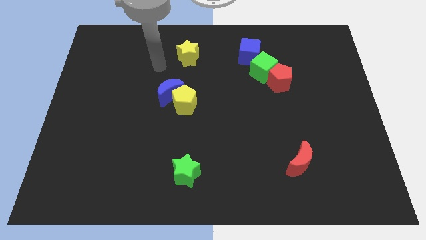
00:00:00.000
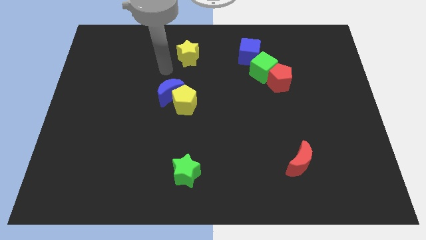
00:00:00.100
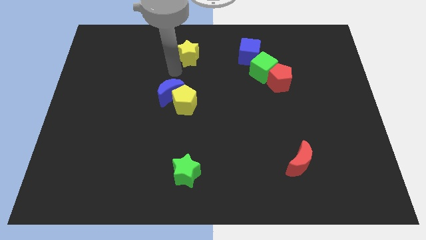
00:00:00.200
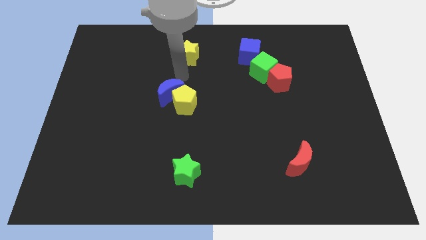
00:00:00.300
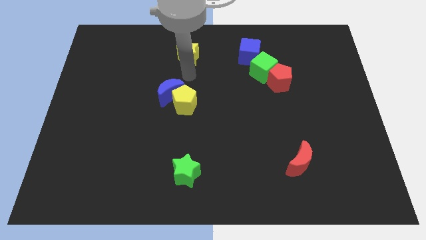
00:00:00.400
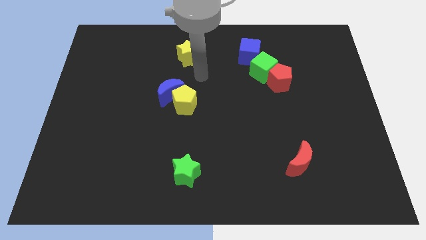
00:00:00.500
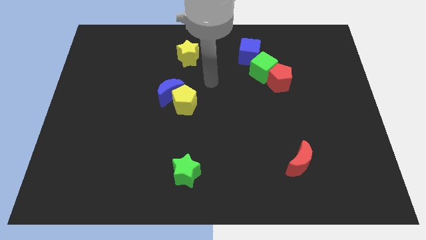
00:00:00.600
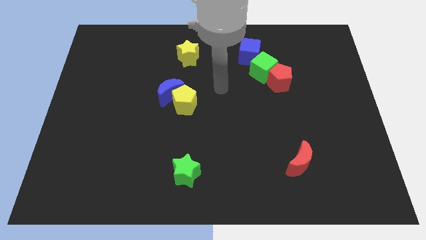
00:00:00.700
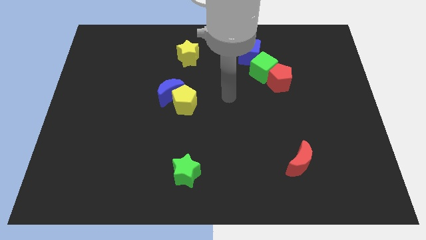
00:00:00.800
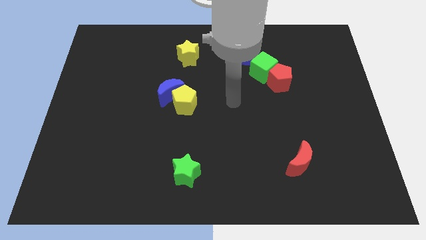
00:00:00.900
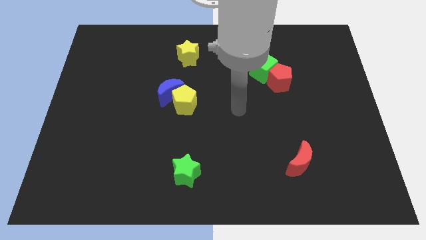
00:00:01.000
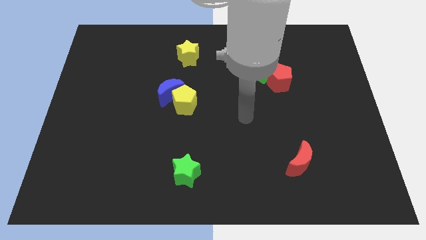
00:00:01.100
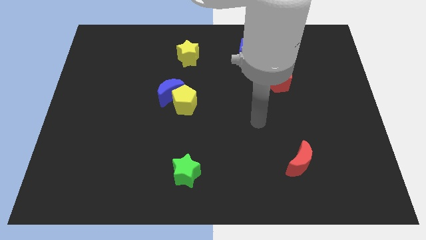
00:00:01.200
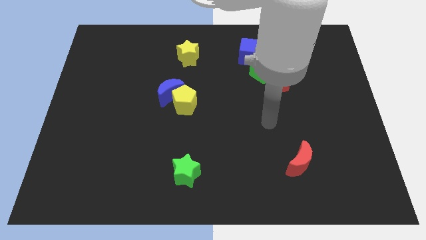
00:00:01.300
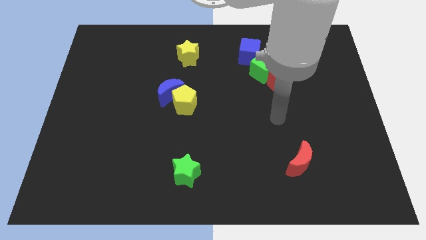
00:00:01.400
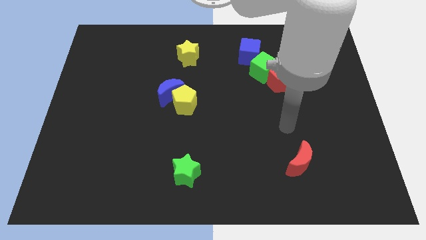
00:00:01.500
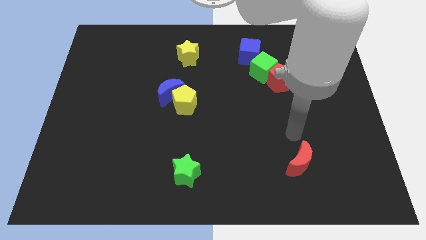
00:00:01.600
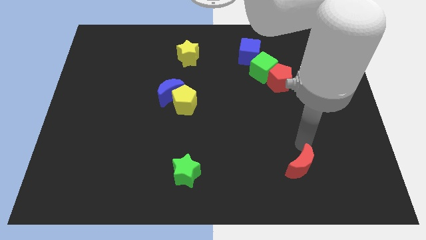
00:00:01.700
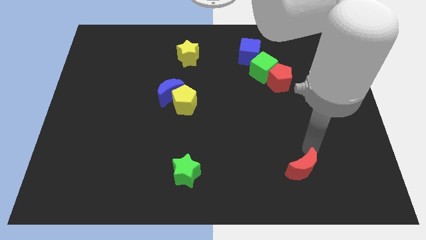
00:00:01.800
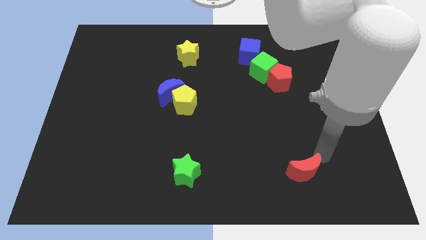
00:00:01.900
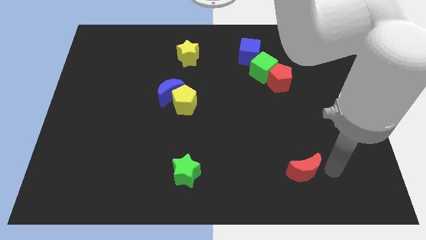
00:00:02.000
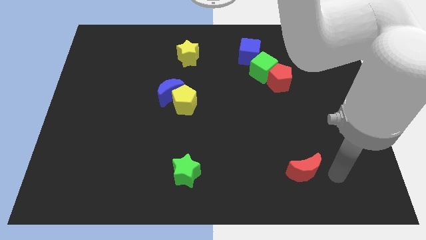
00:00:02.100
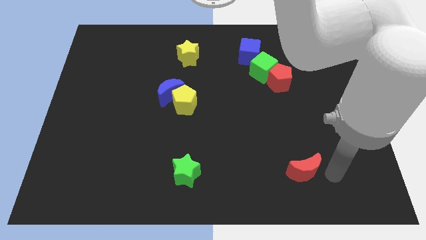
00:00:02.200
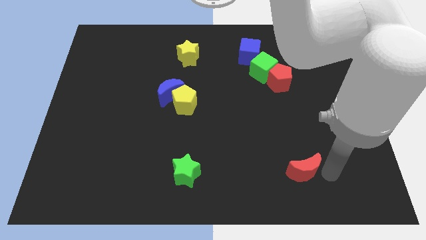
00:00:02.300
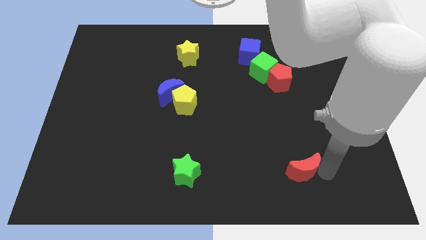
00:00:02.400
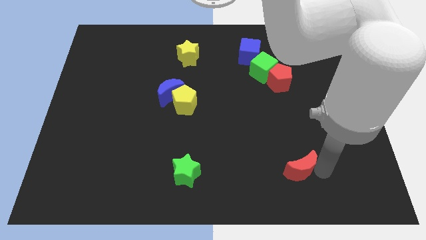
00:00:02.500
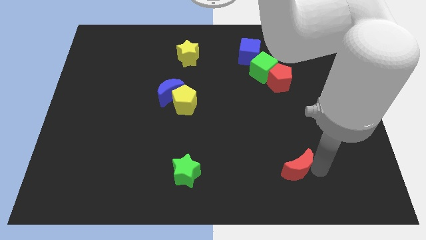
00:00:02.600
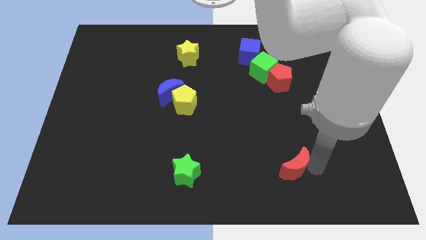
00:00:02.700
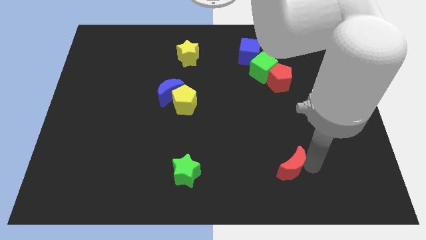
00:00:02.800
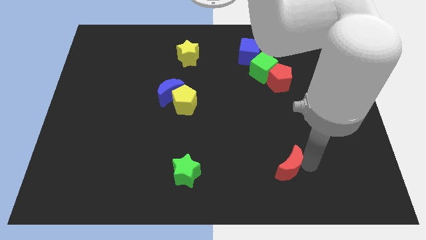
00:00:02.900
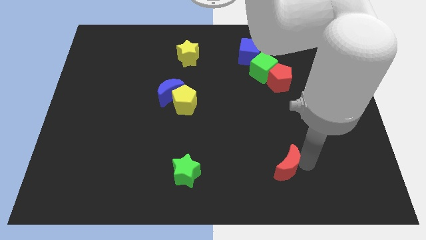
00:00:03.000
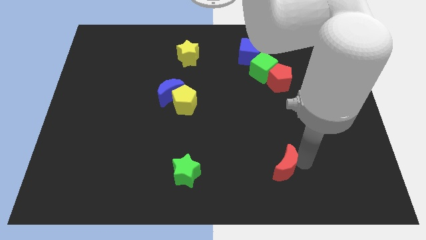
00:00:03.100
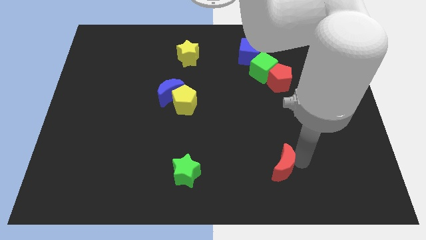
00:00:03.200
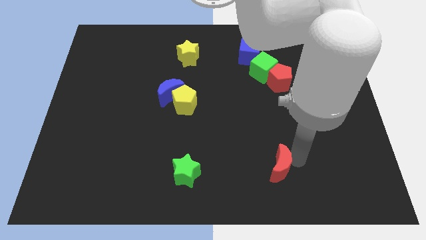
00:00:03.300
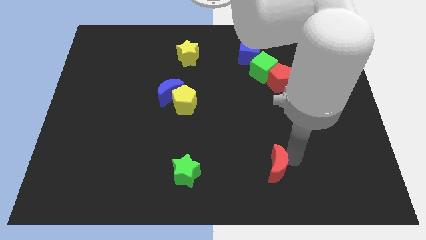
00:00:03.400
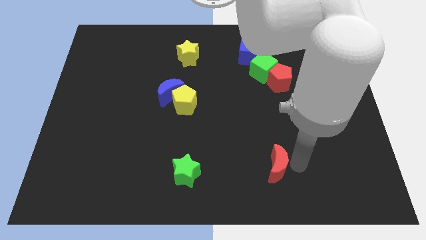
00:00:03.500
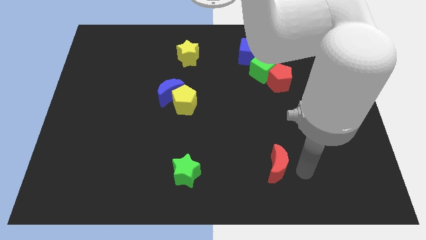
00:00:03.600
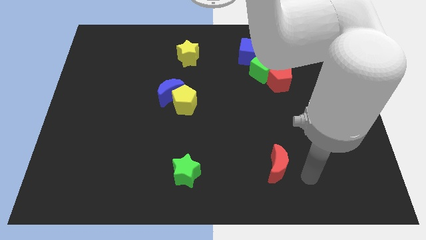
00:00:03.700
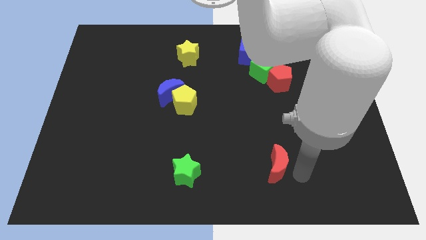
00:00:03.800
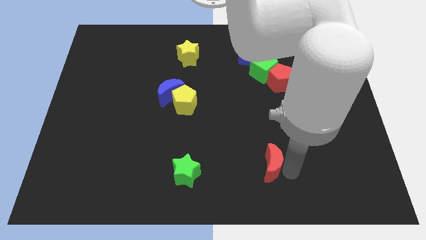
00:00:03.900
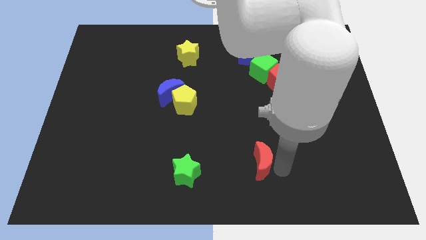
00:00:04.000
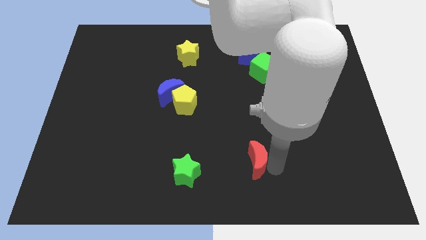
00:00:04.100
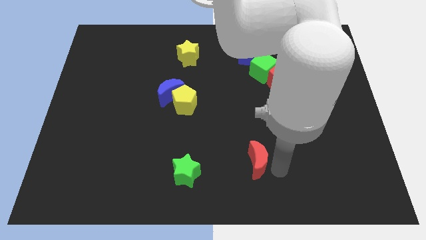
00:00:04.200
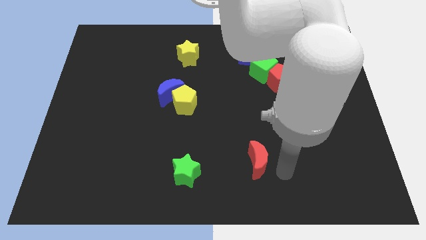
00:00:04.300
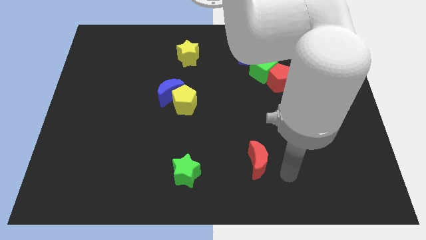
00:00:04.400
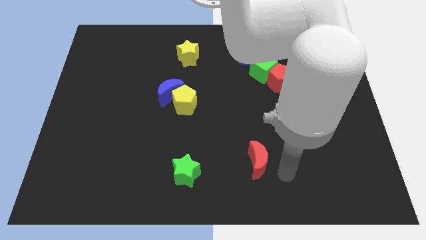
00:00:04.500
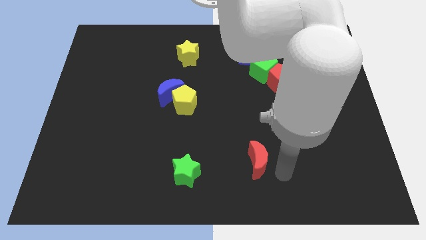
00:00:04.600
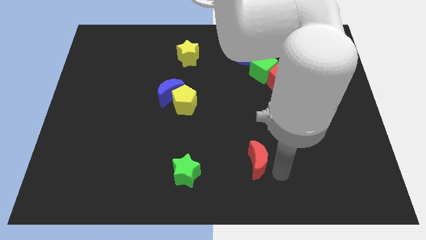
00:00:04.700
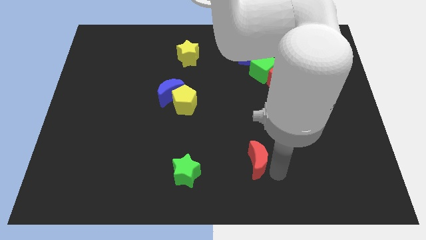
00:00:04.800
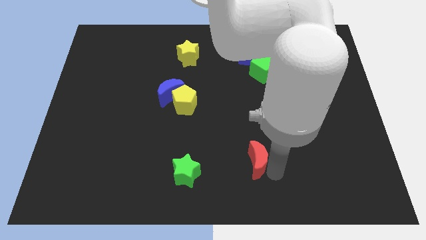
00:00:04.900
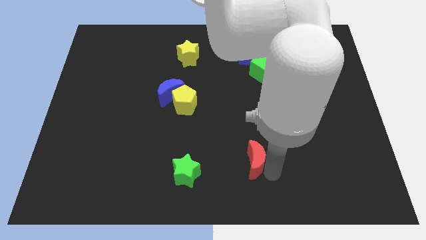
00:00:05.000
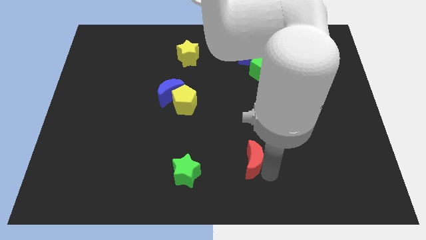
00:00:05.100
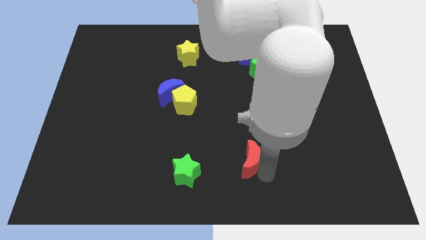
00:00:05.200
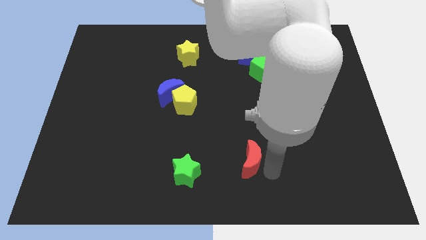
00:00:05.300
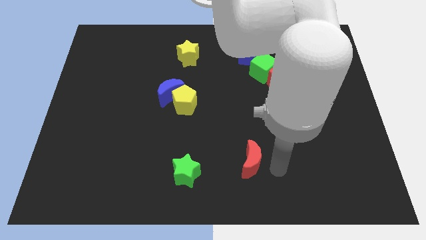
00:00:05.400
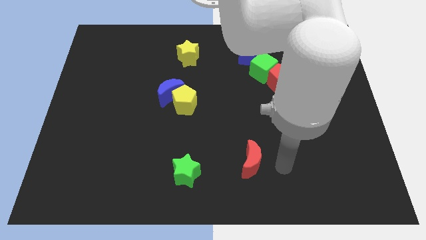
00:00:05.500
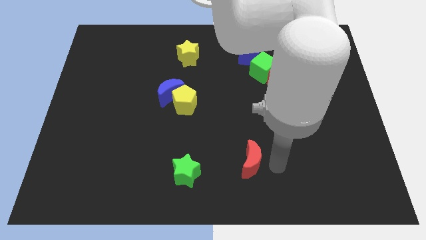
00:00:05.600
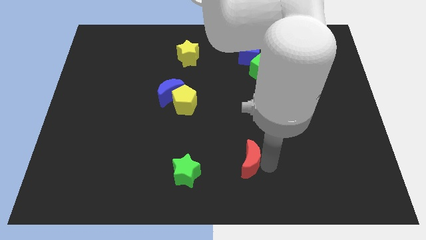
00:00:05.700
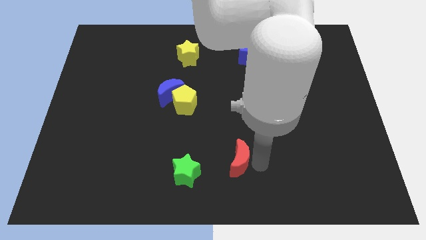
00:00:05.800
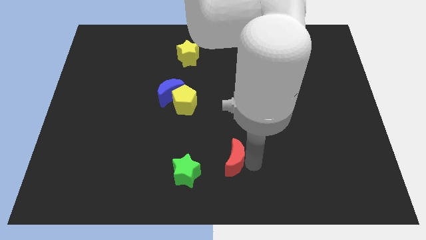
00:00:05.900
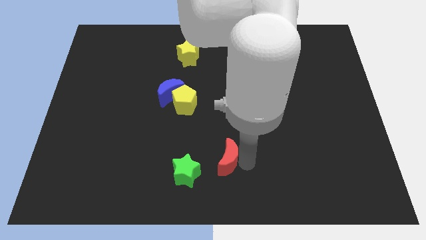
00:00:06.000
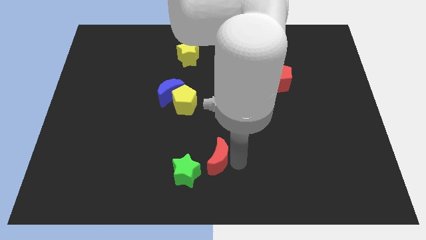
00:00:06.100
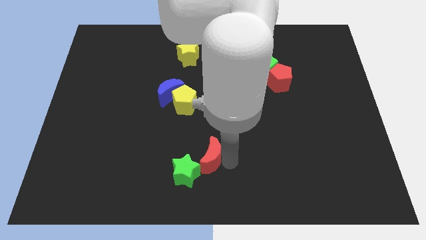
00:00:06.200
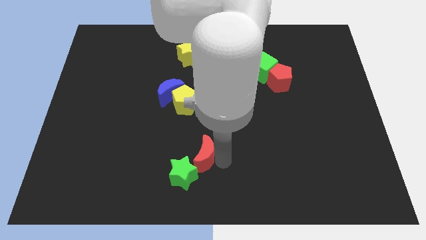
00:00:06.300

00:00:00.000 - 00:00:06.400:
move the red moon to the left

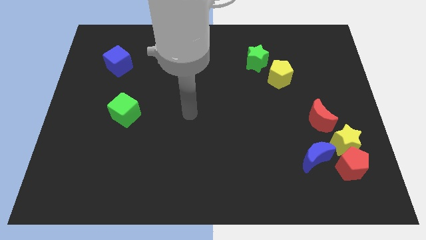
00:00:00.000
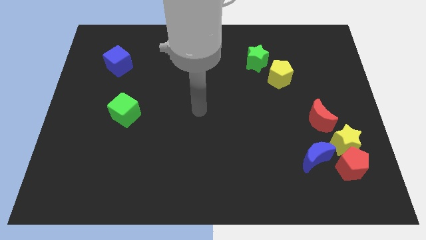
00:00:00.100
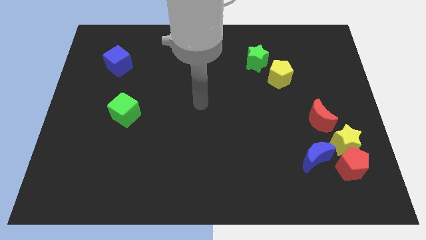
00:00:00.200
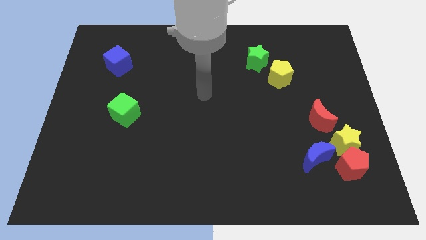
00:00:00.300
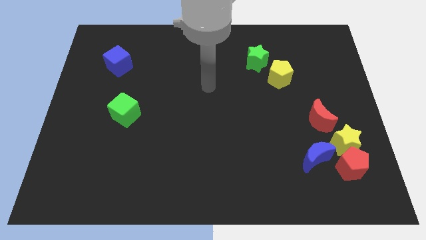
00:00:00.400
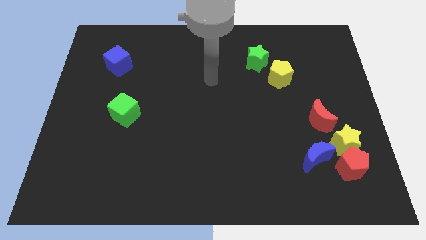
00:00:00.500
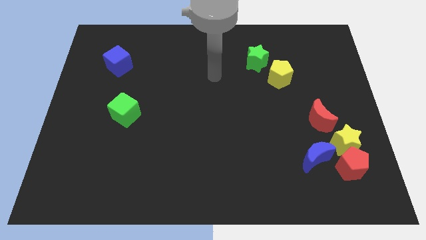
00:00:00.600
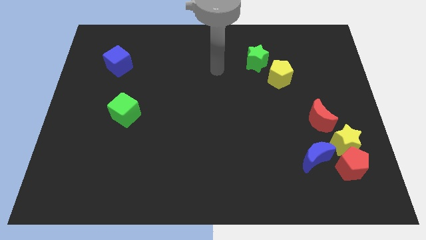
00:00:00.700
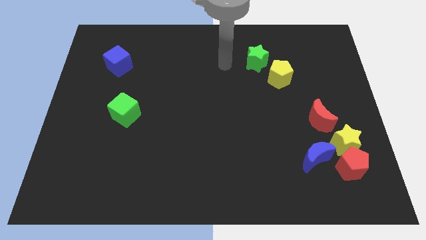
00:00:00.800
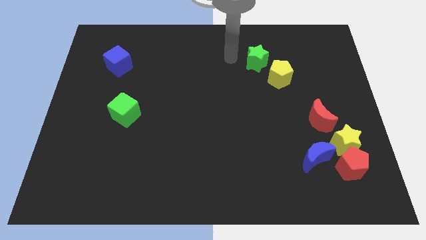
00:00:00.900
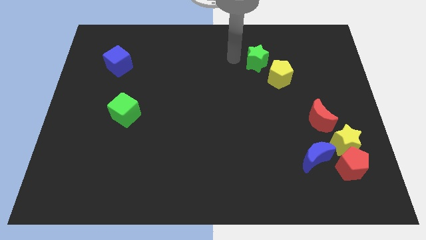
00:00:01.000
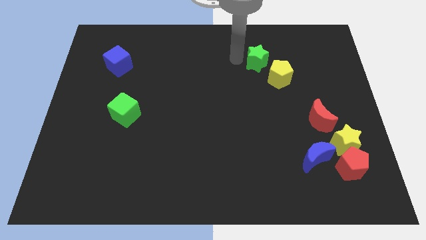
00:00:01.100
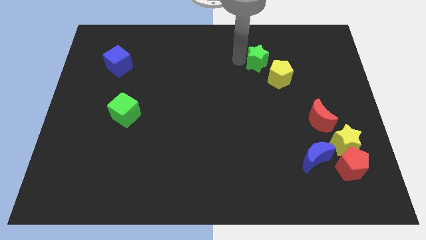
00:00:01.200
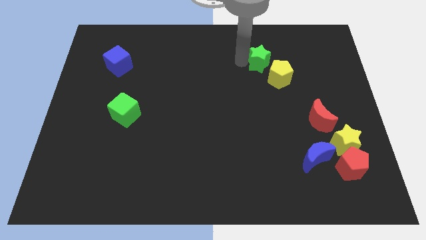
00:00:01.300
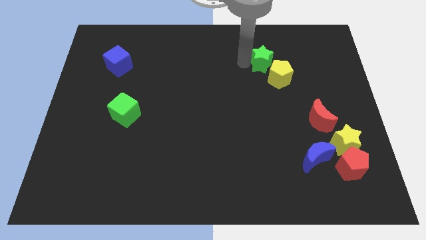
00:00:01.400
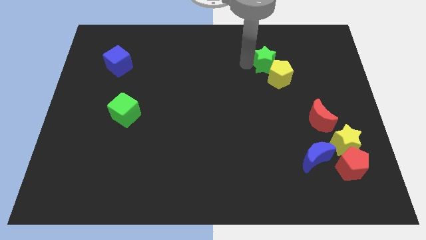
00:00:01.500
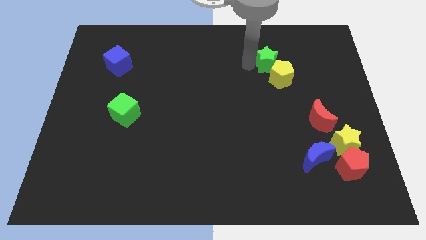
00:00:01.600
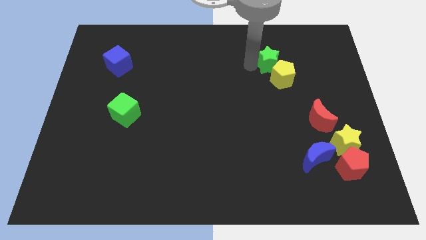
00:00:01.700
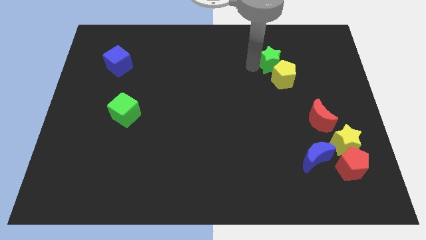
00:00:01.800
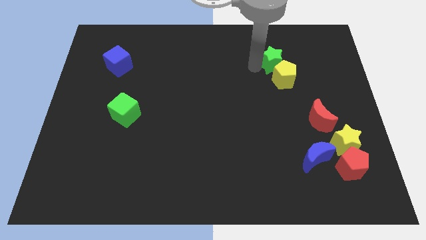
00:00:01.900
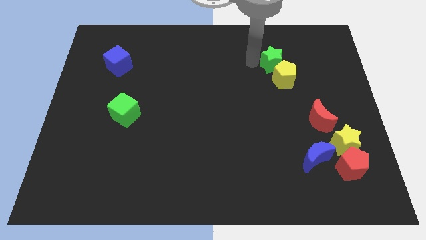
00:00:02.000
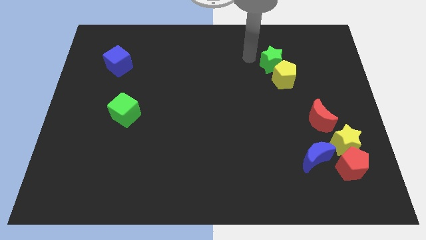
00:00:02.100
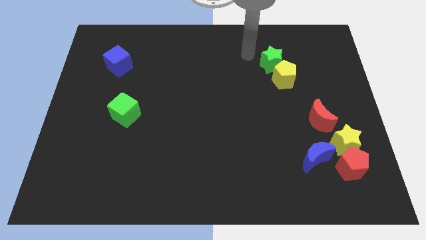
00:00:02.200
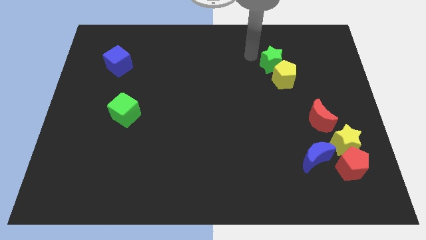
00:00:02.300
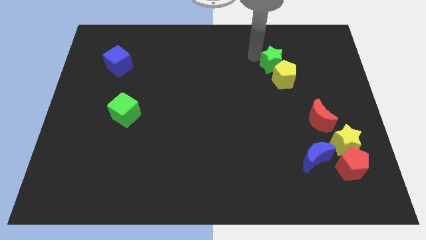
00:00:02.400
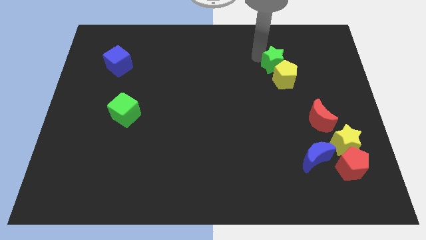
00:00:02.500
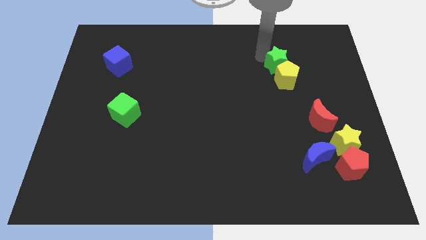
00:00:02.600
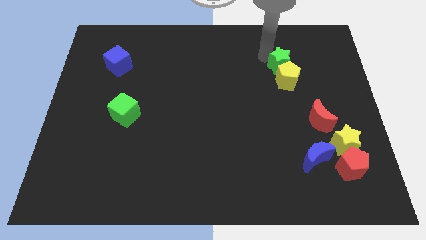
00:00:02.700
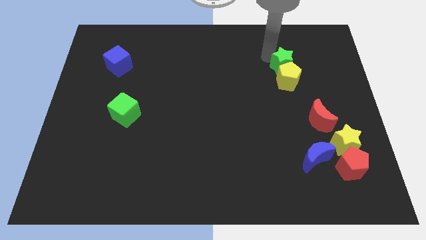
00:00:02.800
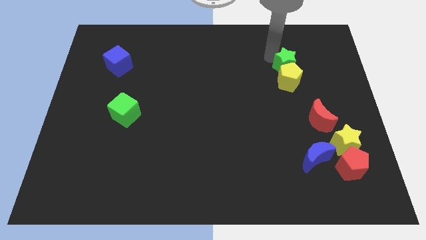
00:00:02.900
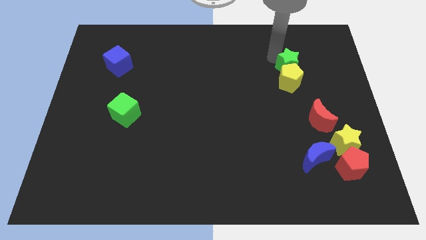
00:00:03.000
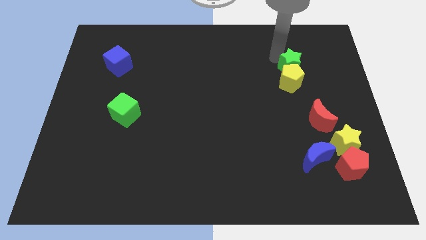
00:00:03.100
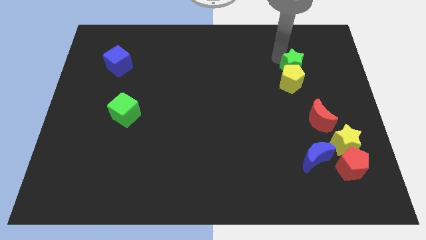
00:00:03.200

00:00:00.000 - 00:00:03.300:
slightly push the green star down and to the right
